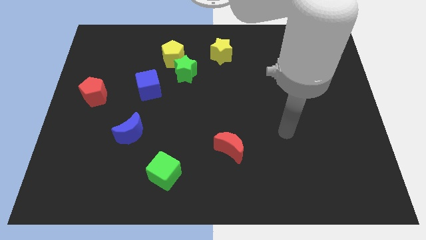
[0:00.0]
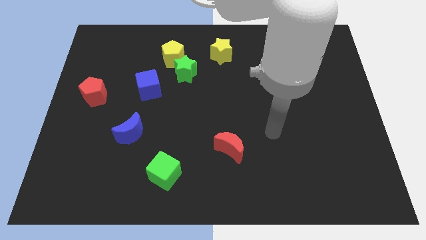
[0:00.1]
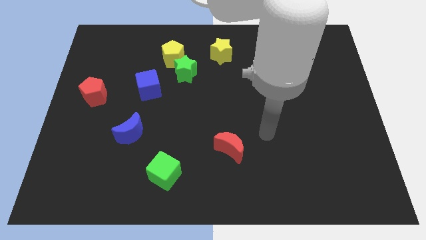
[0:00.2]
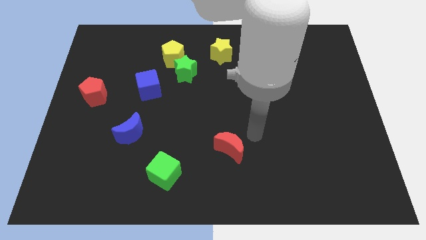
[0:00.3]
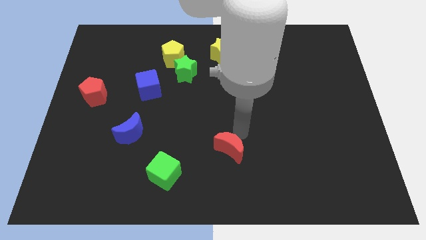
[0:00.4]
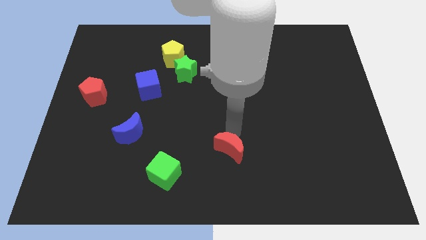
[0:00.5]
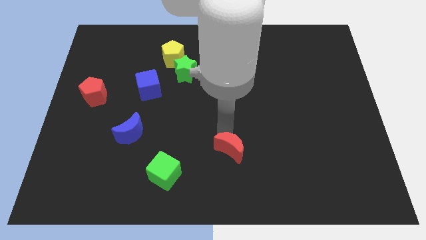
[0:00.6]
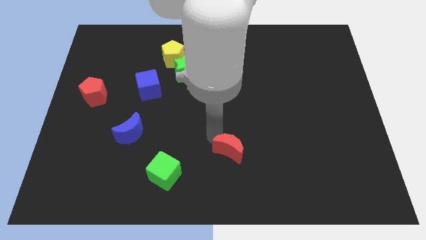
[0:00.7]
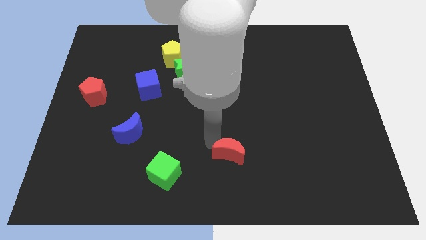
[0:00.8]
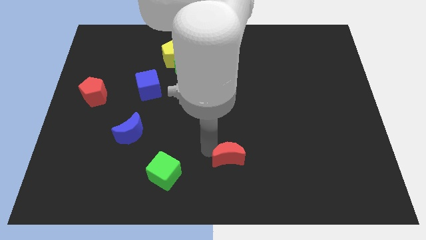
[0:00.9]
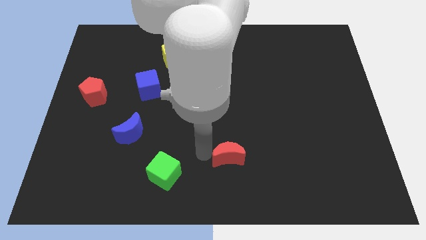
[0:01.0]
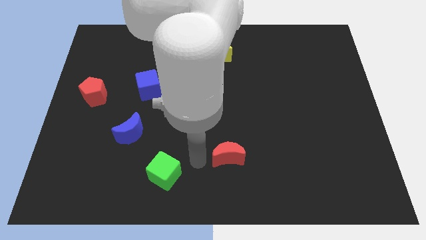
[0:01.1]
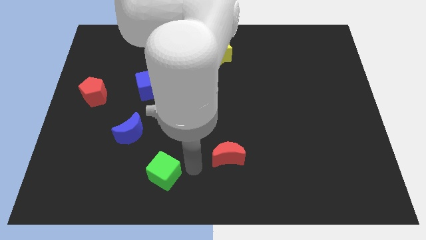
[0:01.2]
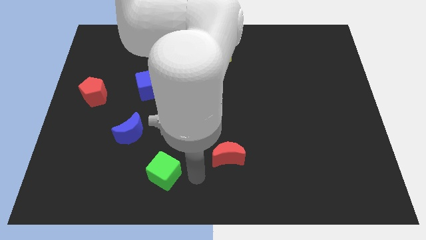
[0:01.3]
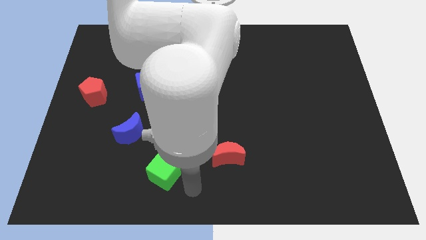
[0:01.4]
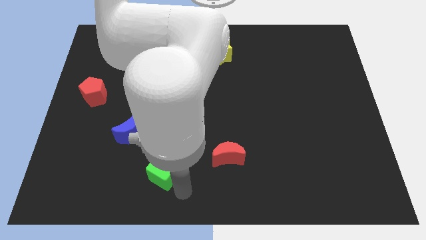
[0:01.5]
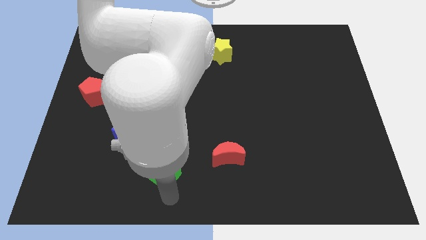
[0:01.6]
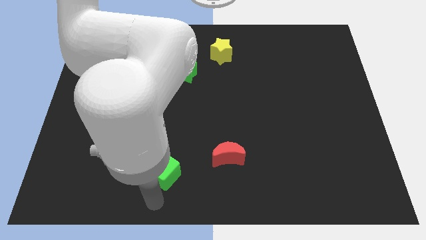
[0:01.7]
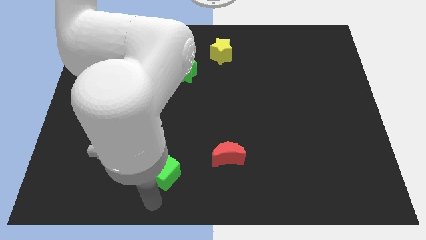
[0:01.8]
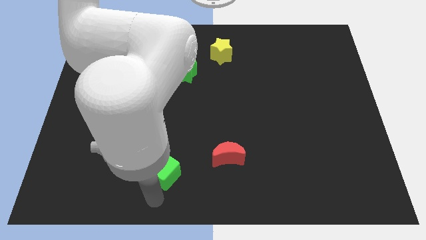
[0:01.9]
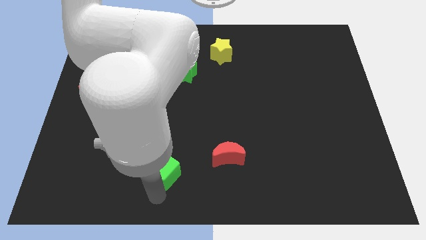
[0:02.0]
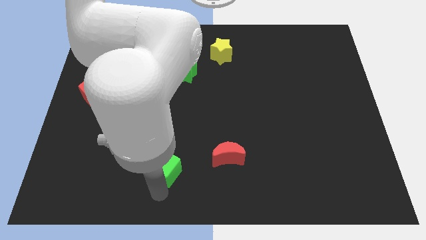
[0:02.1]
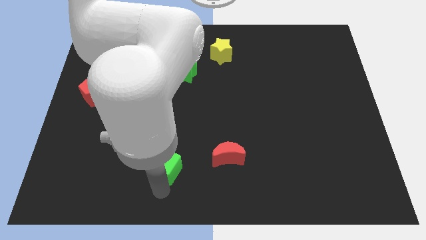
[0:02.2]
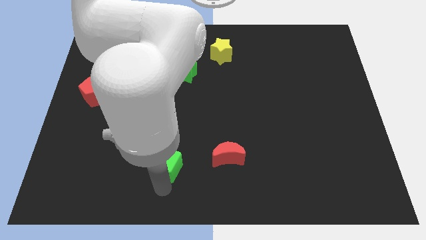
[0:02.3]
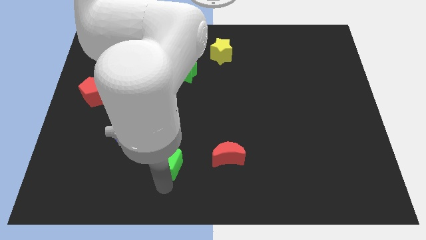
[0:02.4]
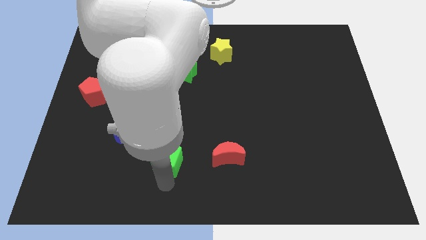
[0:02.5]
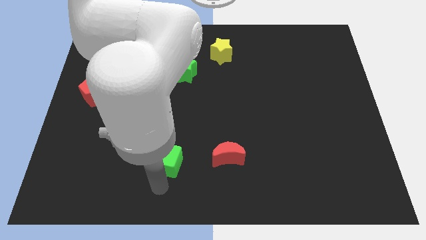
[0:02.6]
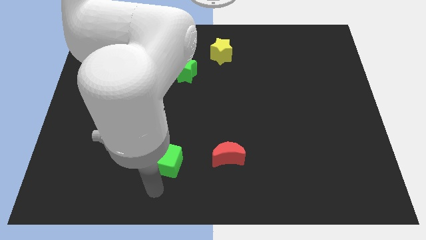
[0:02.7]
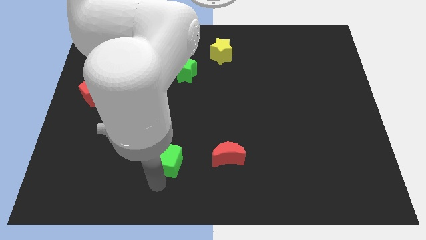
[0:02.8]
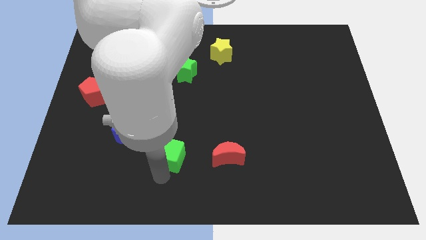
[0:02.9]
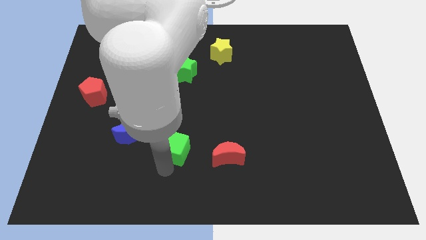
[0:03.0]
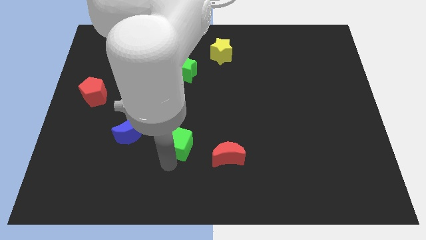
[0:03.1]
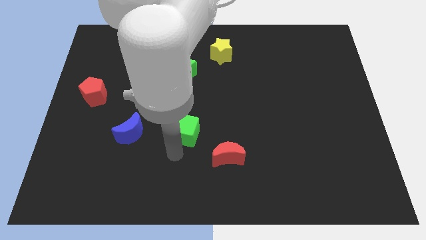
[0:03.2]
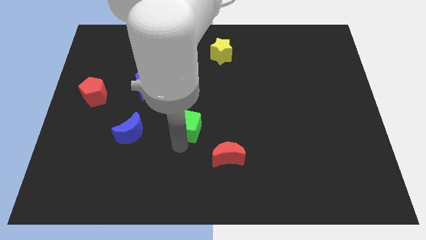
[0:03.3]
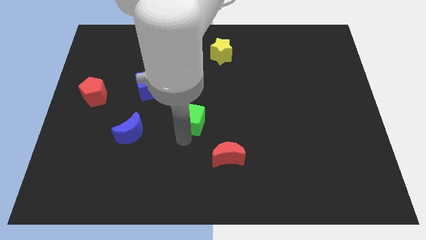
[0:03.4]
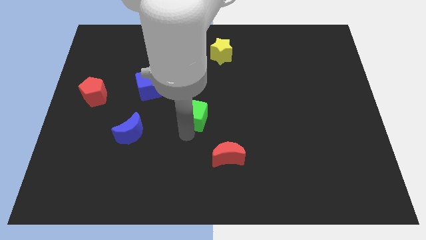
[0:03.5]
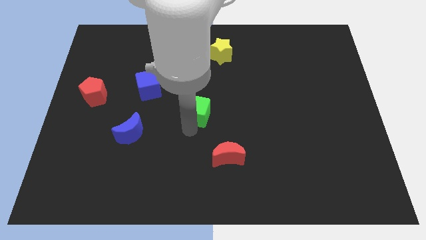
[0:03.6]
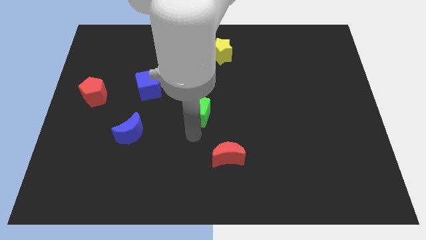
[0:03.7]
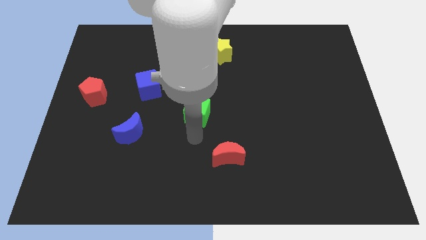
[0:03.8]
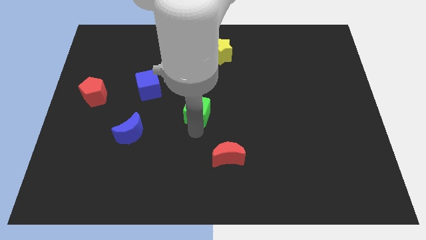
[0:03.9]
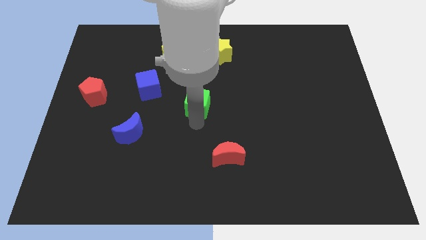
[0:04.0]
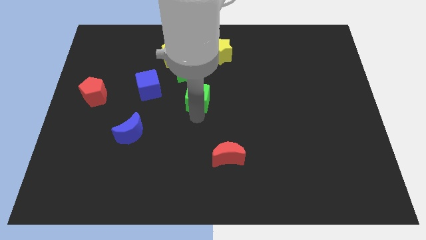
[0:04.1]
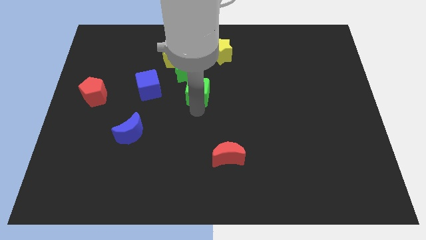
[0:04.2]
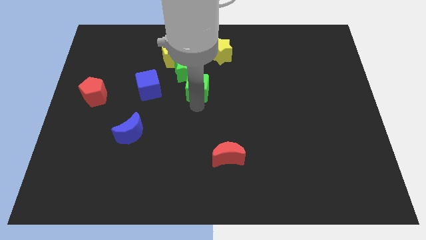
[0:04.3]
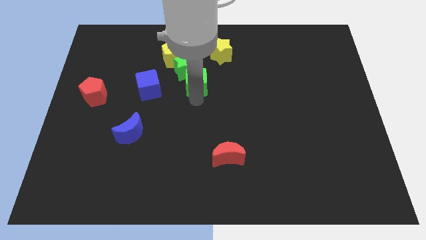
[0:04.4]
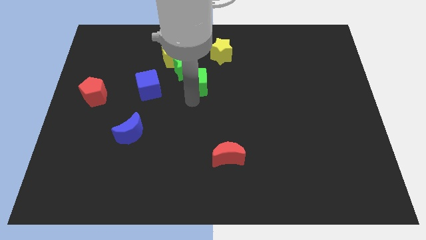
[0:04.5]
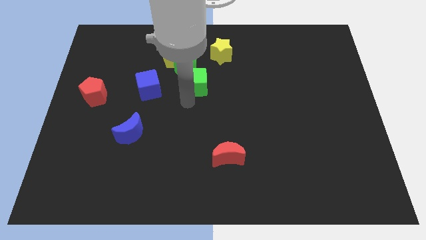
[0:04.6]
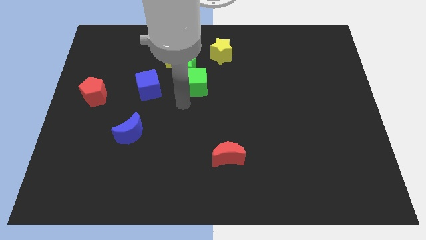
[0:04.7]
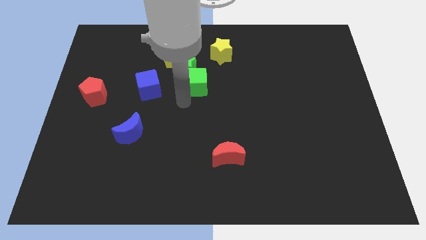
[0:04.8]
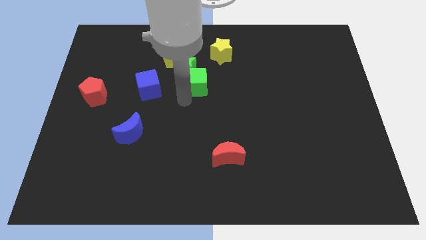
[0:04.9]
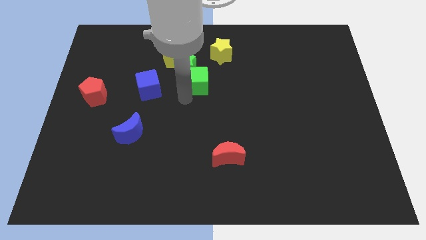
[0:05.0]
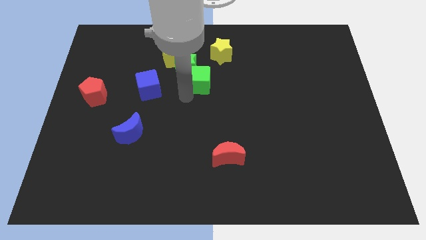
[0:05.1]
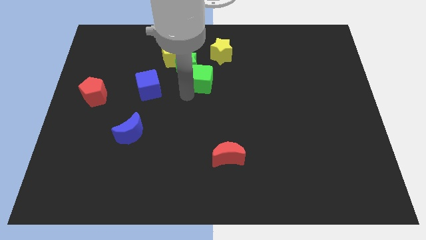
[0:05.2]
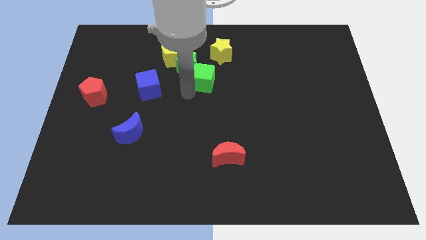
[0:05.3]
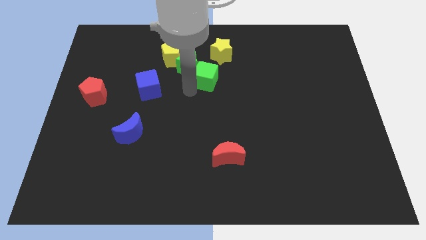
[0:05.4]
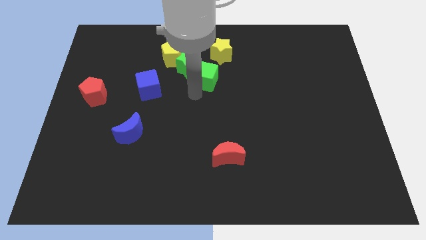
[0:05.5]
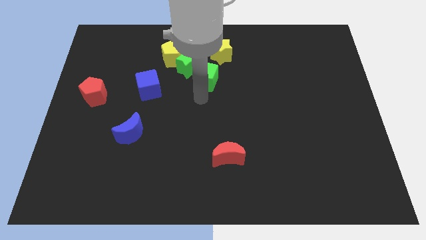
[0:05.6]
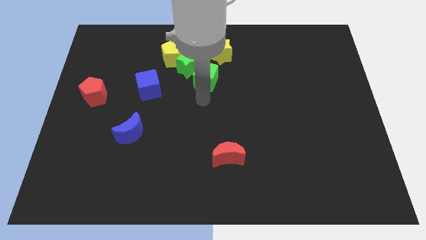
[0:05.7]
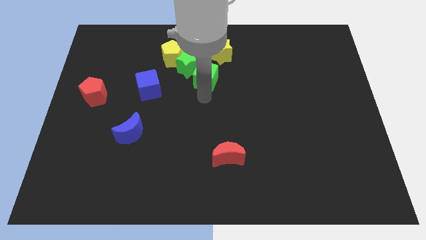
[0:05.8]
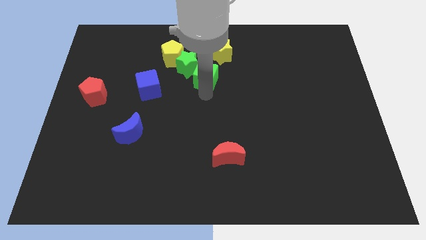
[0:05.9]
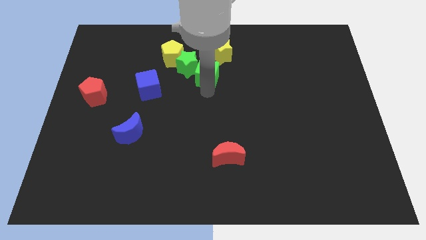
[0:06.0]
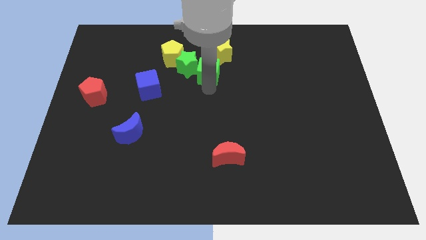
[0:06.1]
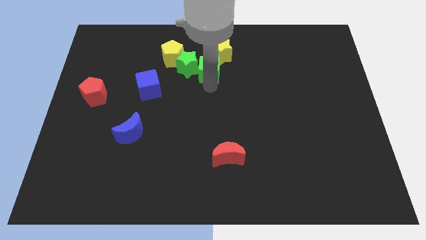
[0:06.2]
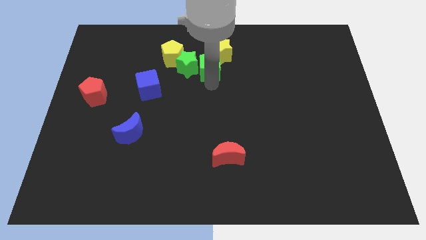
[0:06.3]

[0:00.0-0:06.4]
put the green cube to the top right side of the green star

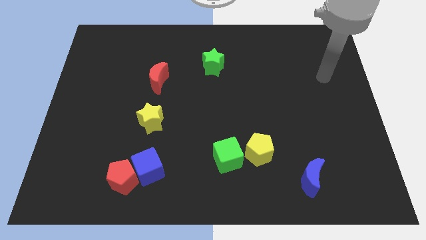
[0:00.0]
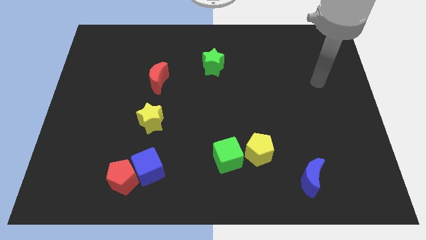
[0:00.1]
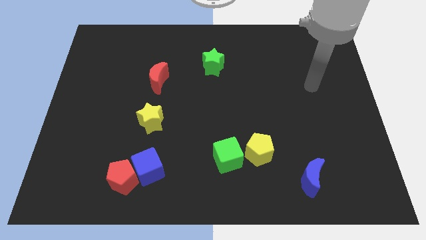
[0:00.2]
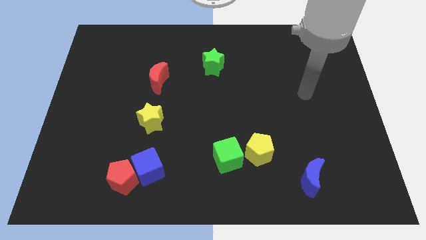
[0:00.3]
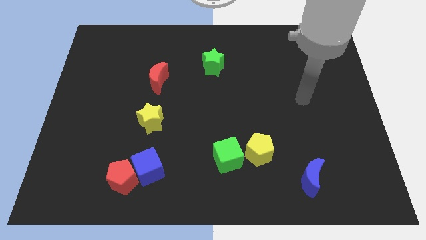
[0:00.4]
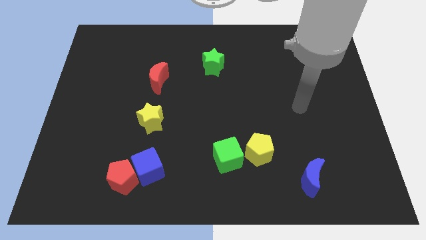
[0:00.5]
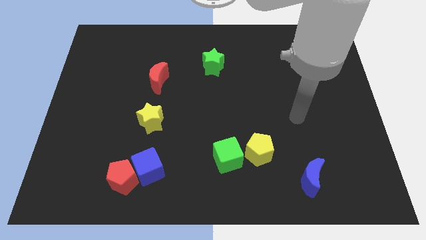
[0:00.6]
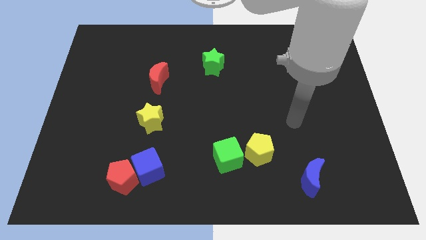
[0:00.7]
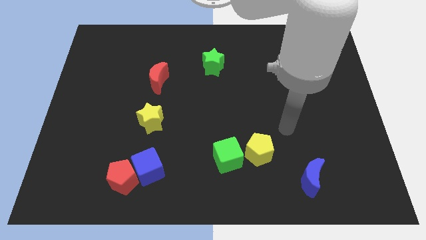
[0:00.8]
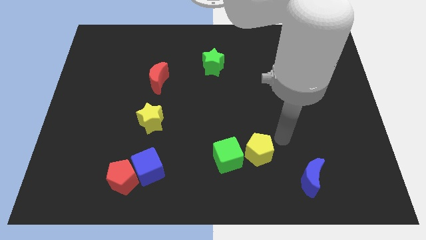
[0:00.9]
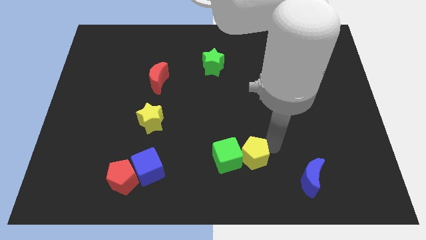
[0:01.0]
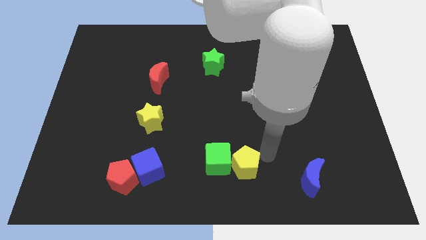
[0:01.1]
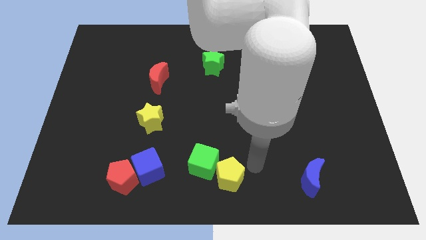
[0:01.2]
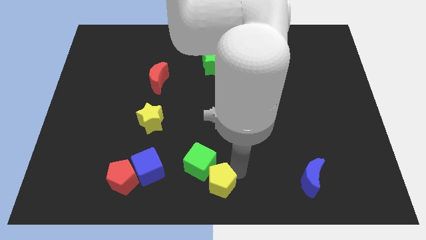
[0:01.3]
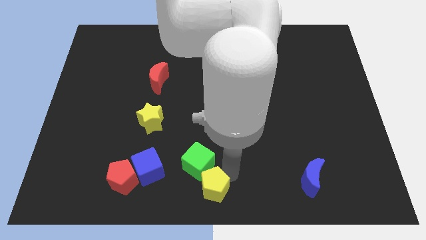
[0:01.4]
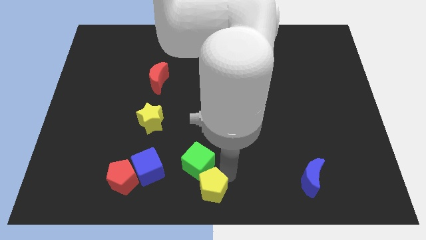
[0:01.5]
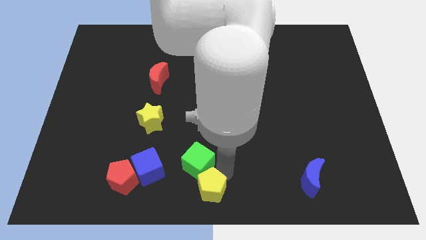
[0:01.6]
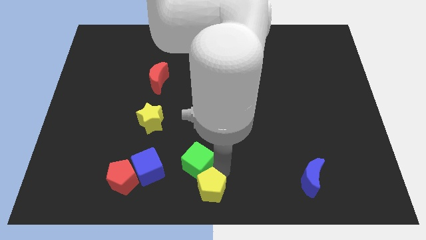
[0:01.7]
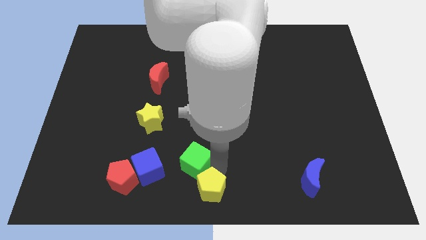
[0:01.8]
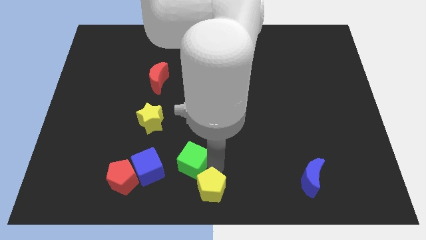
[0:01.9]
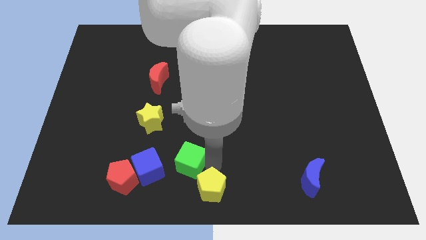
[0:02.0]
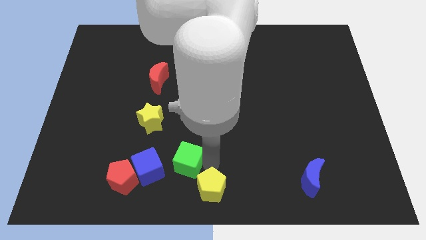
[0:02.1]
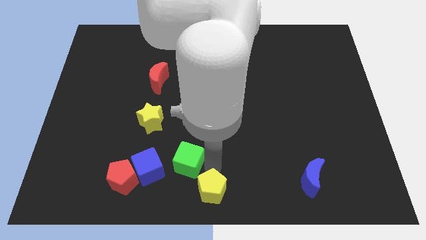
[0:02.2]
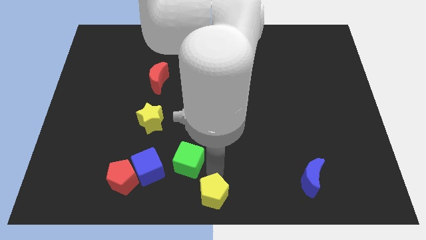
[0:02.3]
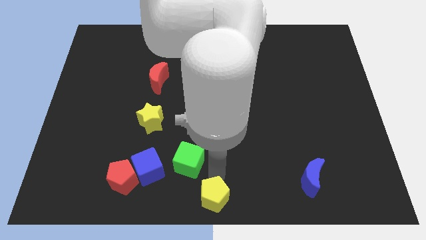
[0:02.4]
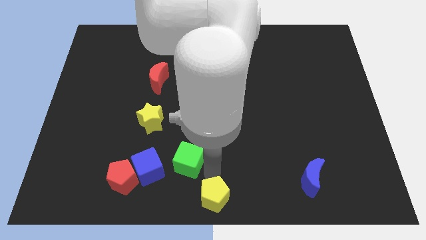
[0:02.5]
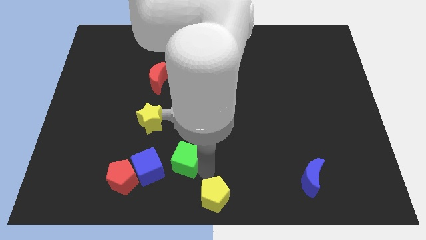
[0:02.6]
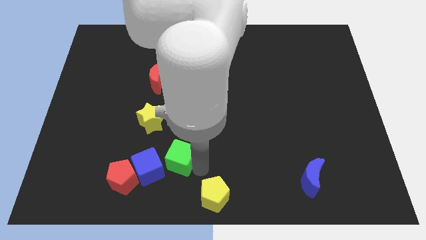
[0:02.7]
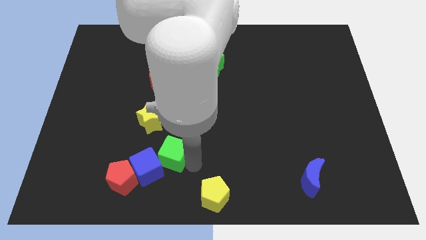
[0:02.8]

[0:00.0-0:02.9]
move the green cube diagonally up and to the right of the red pentagon
